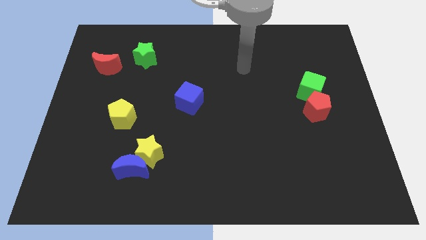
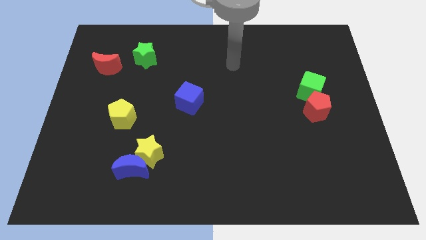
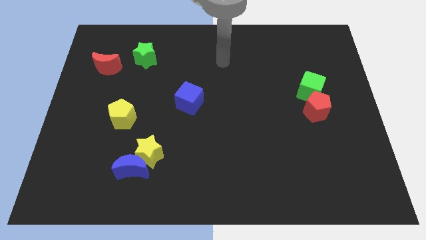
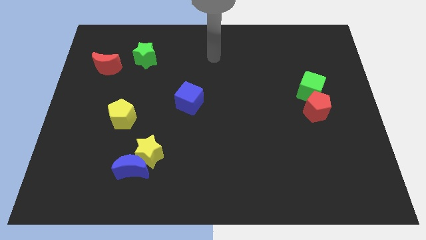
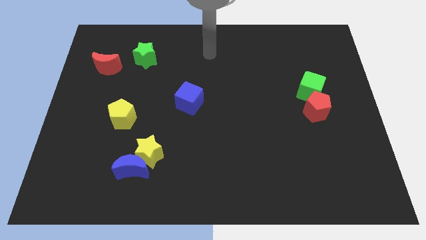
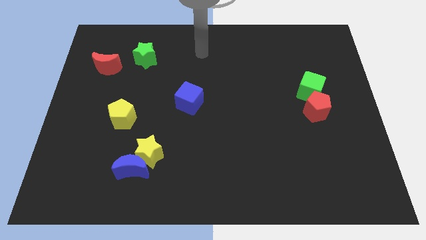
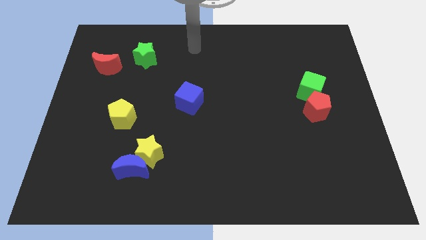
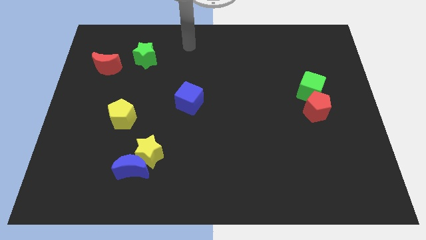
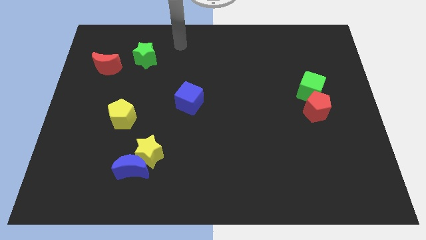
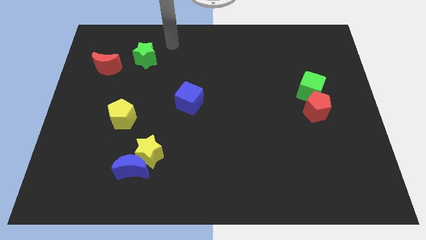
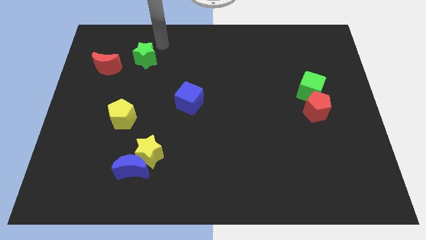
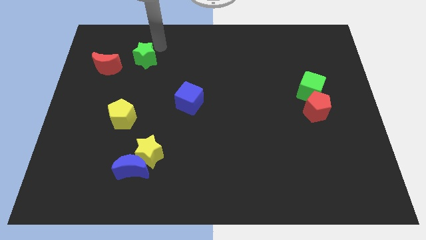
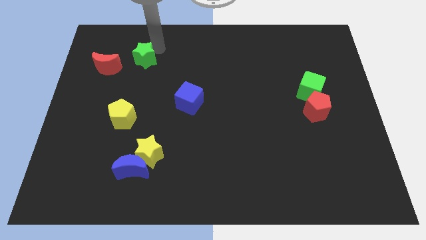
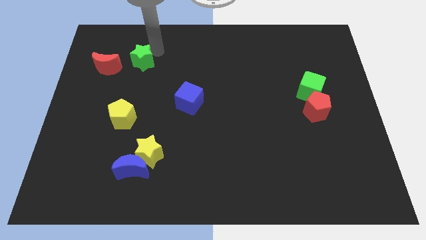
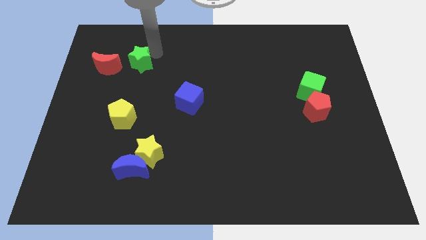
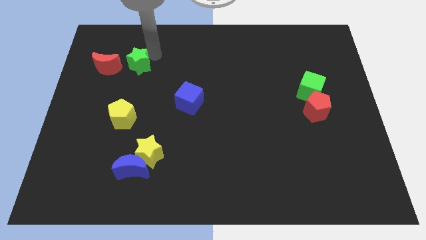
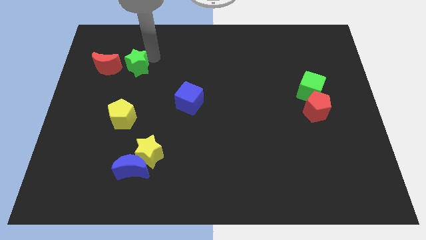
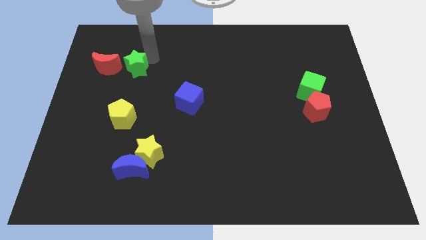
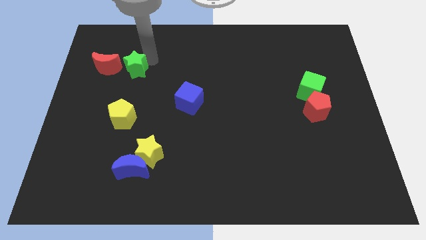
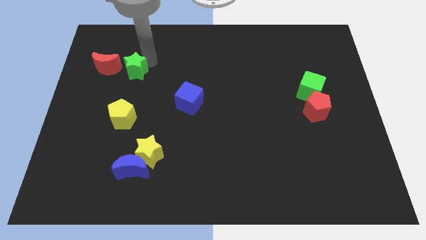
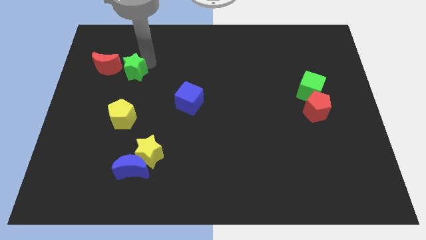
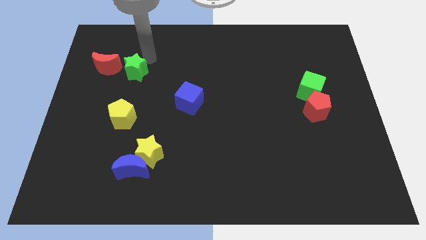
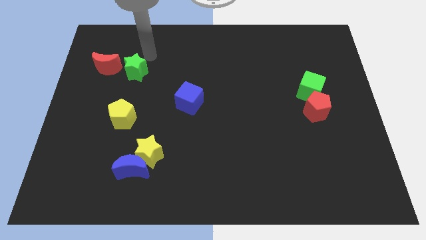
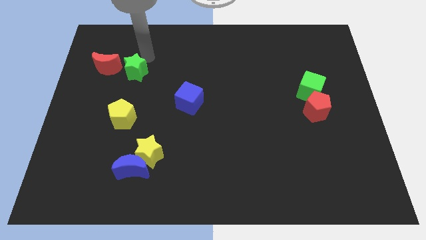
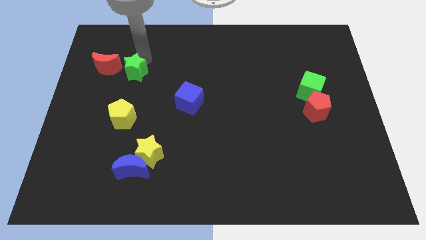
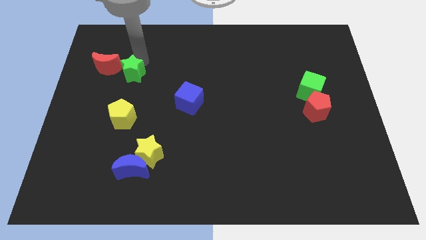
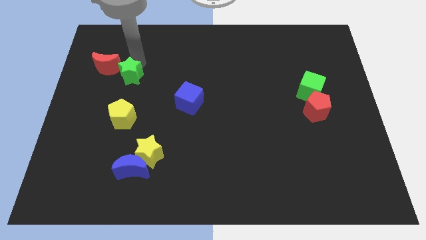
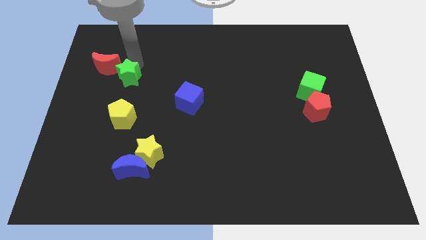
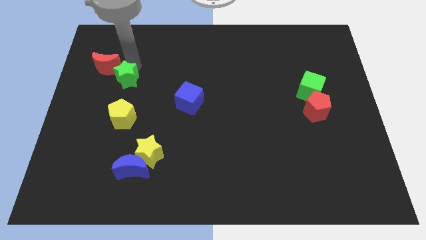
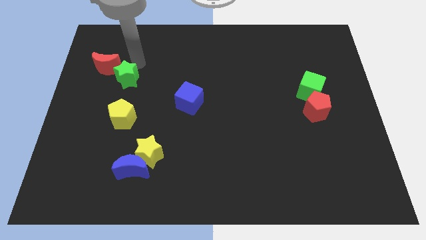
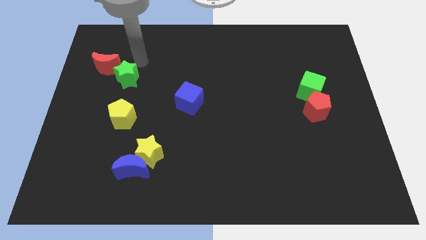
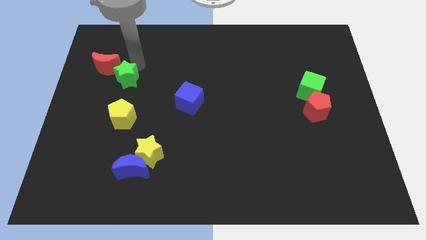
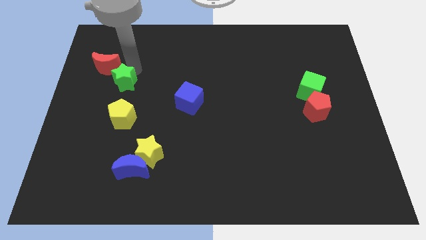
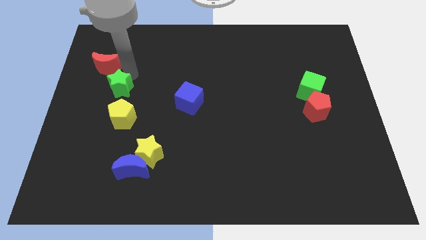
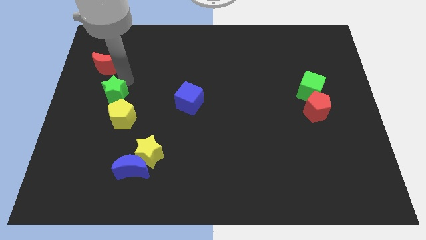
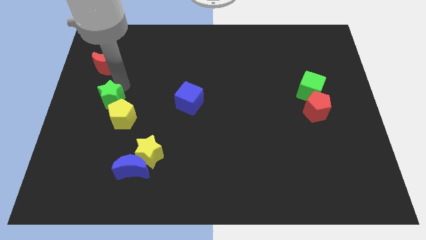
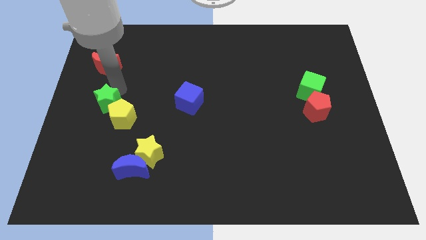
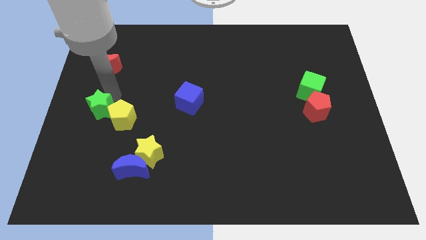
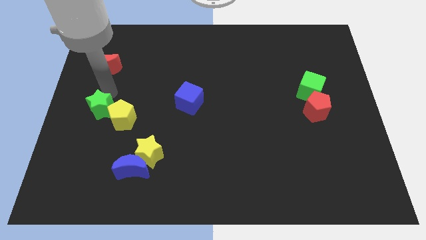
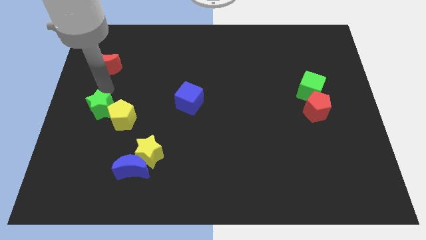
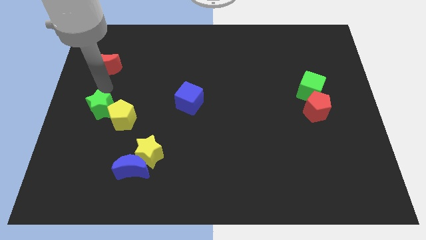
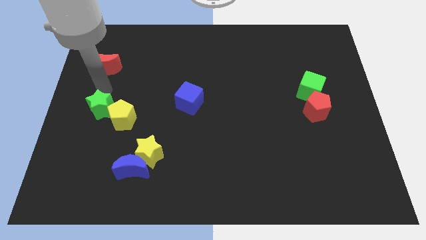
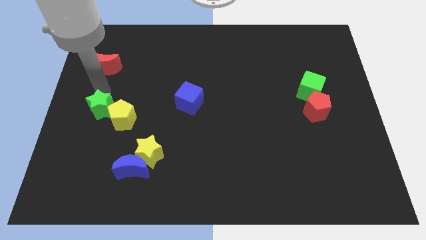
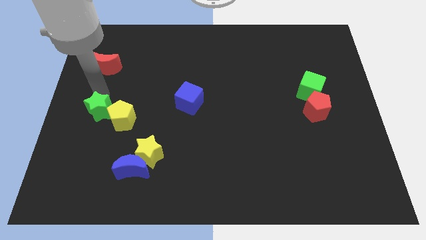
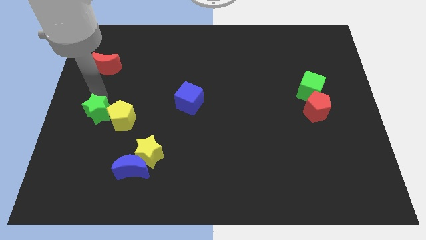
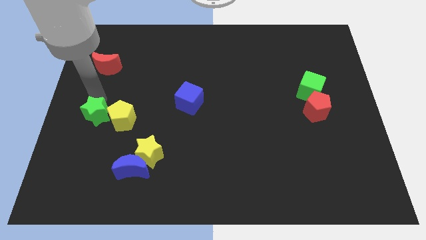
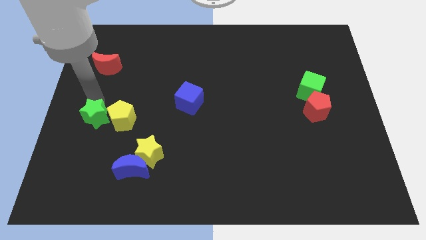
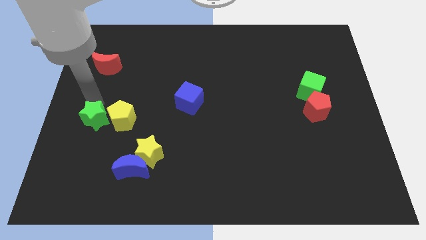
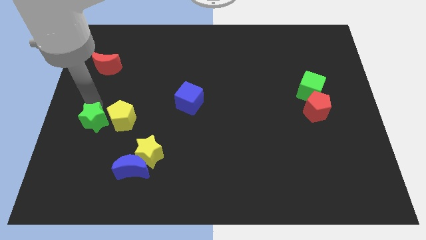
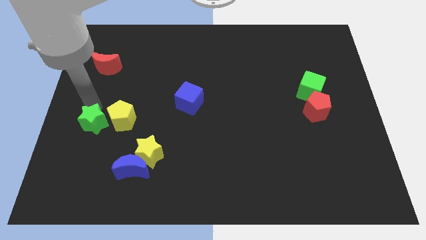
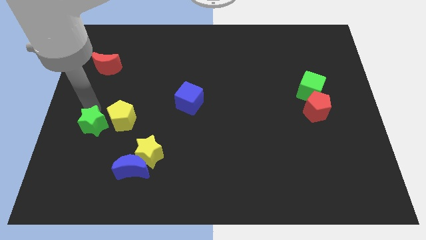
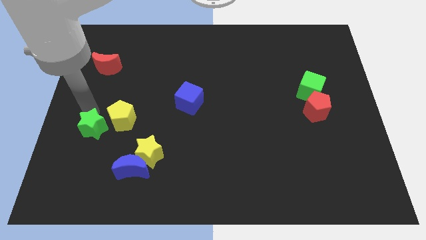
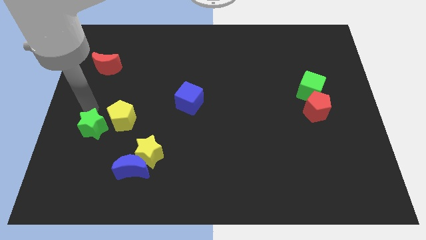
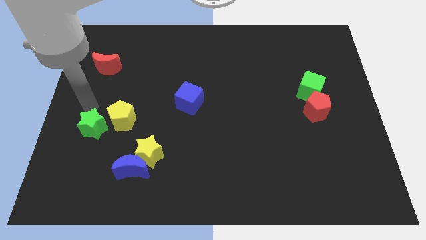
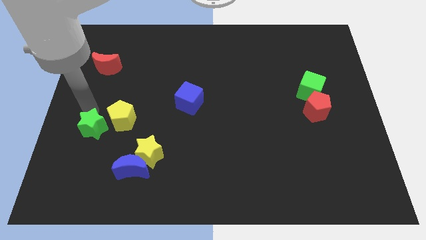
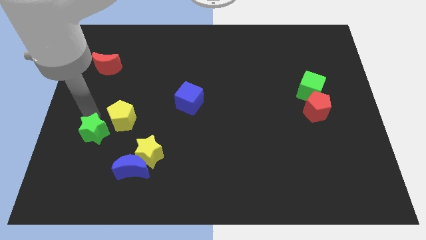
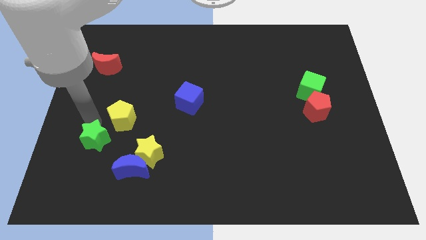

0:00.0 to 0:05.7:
slide the green star to the left of the yellow star

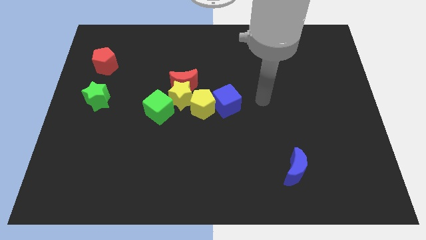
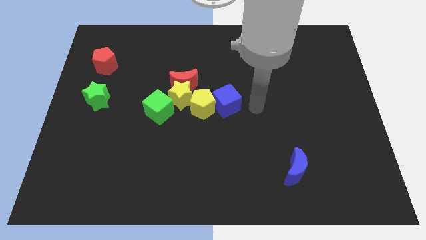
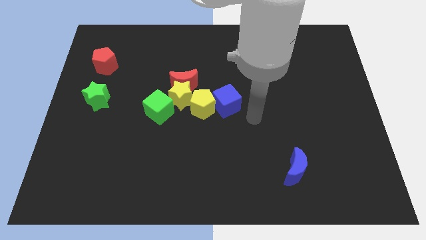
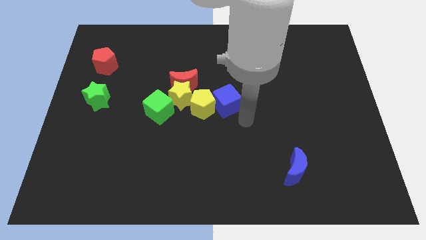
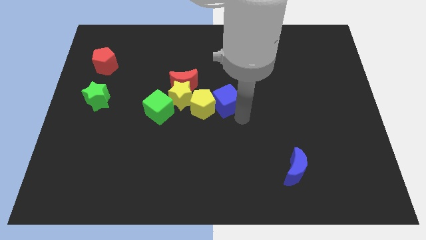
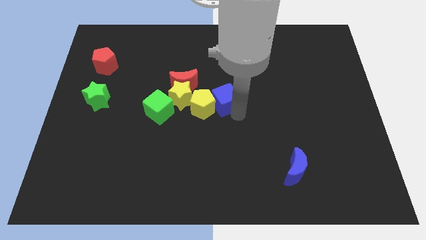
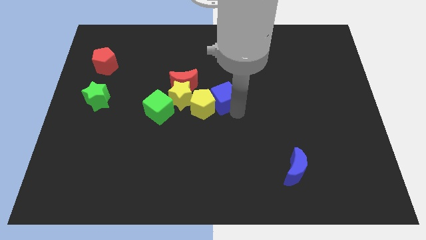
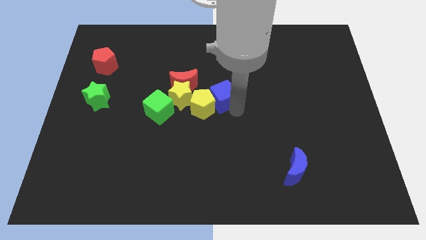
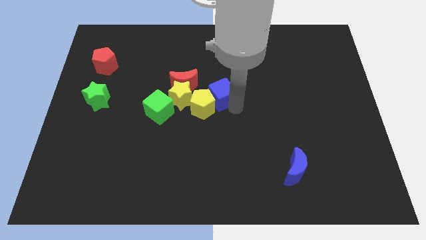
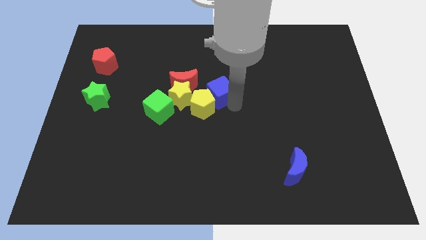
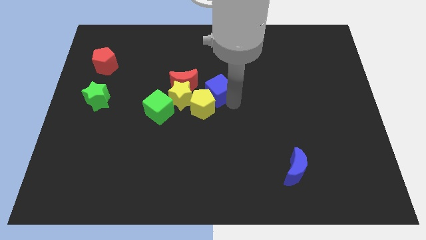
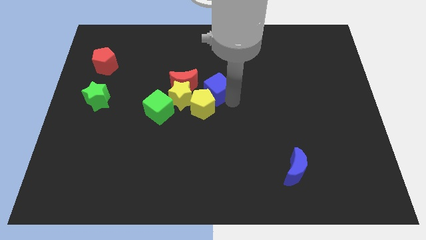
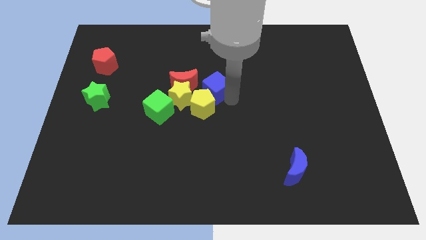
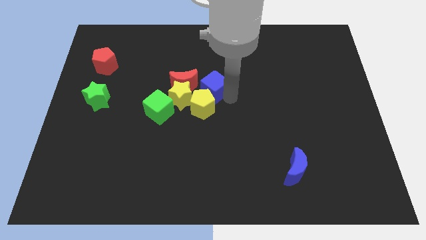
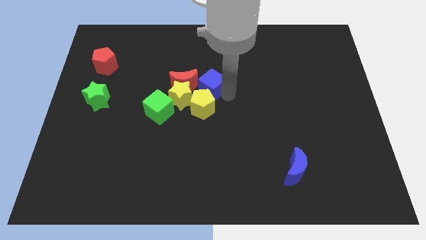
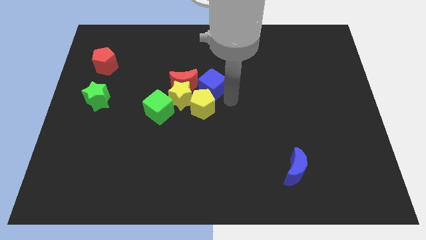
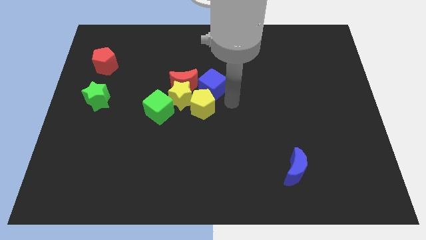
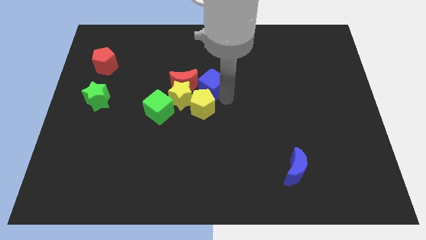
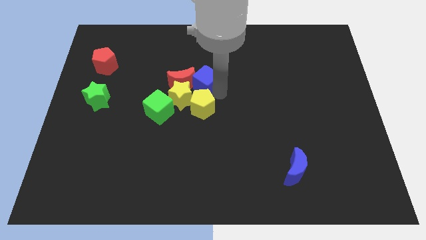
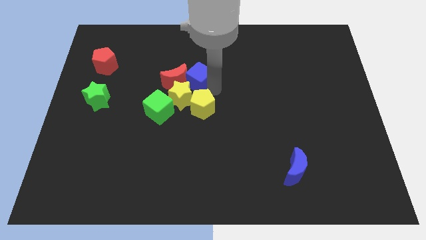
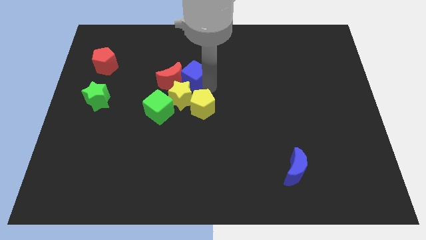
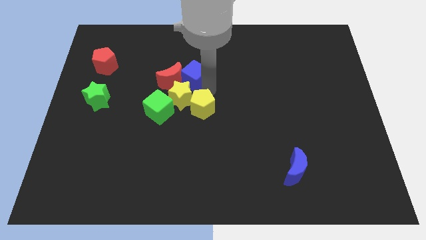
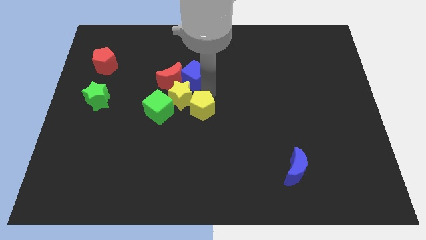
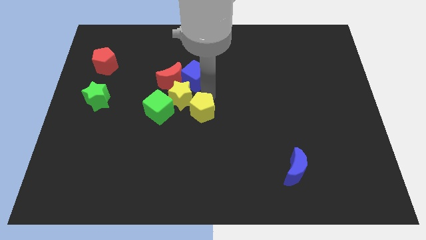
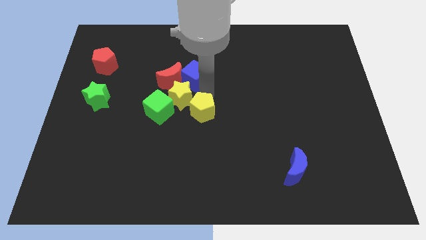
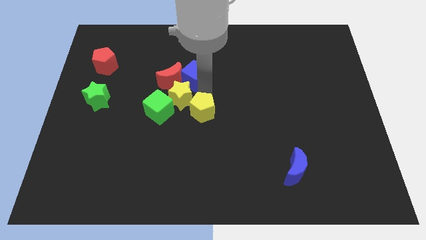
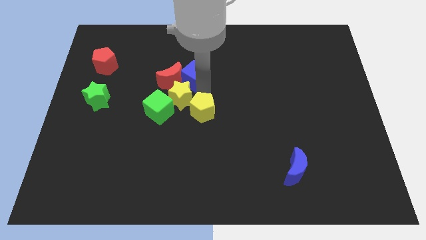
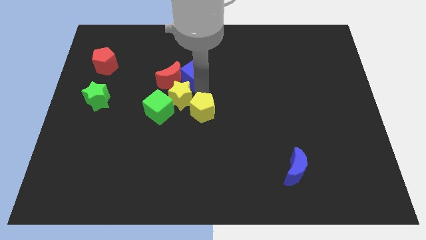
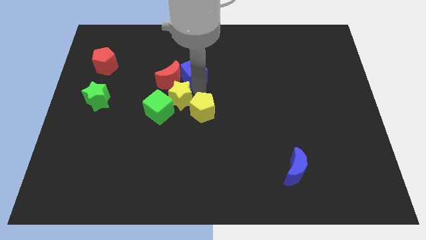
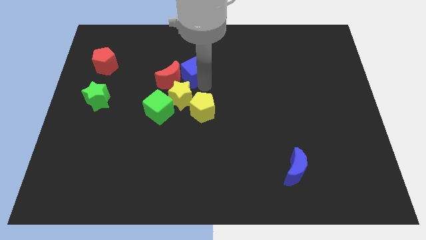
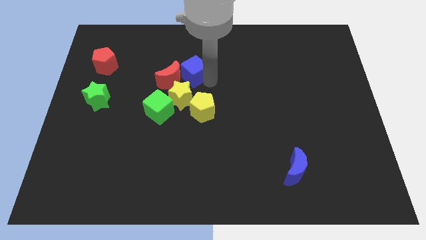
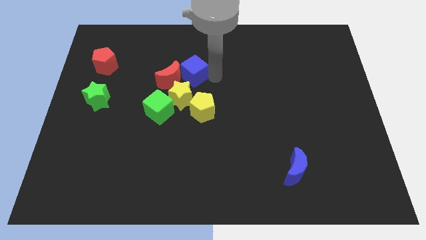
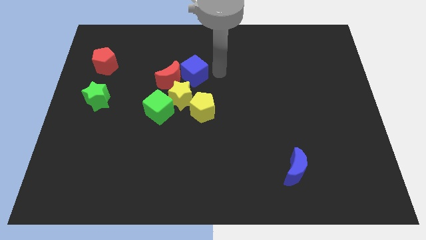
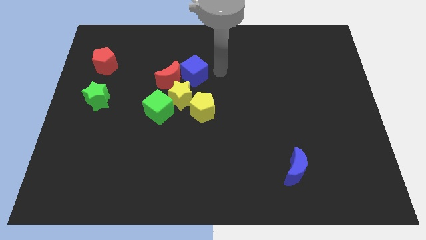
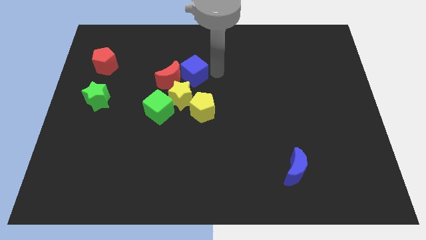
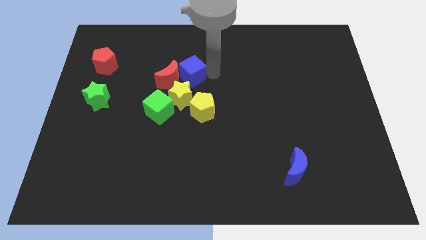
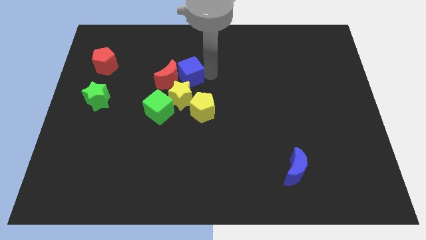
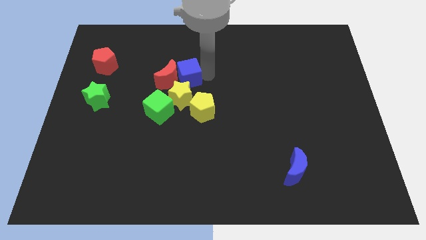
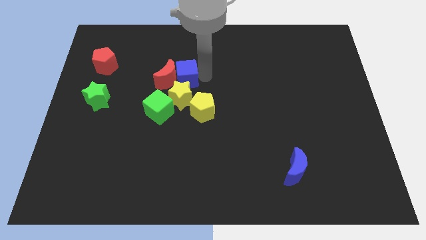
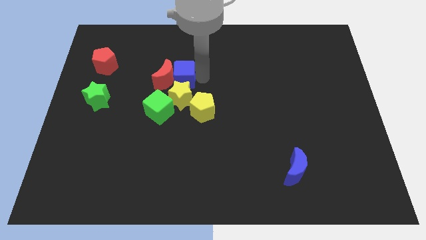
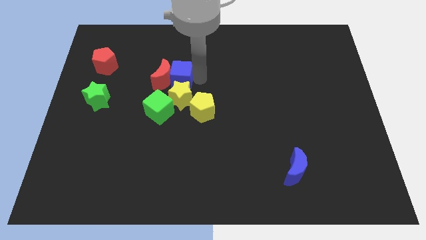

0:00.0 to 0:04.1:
put the blue cube above the green cube
